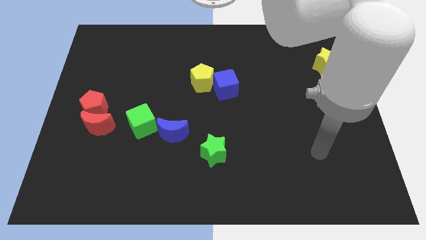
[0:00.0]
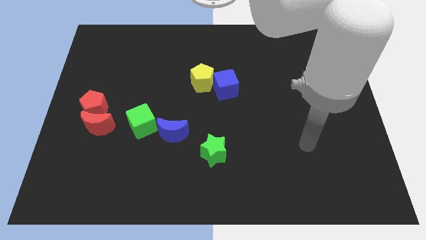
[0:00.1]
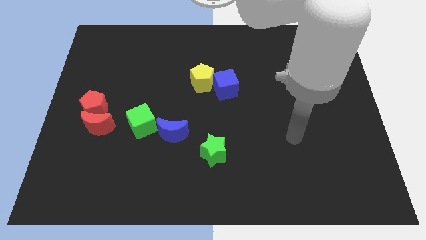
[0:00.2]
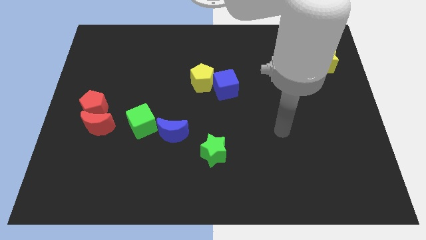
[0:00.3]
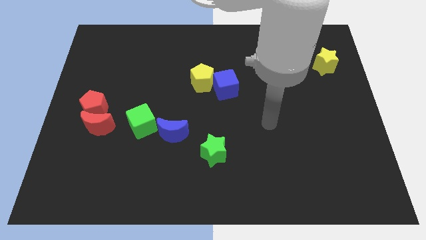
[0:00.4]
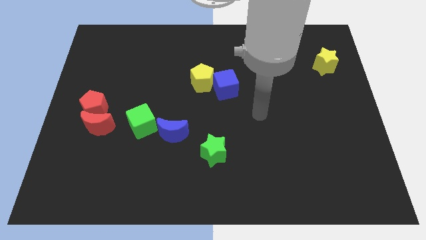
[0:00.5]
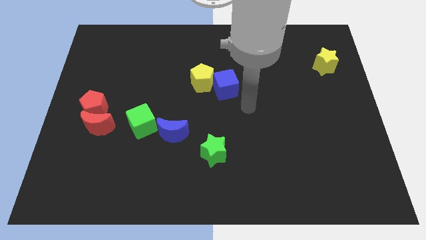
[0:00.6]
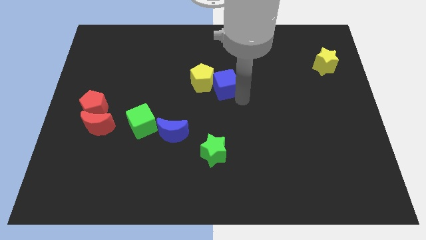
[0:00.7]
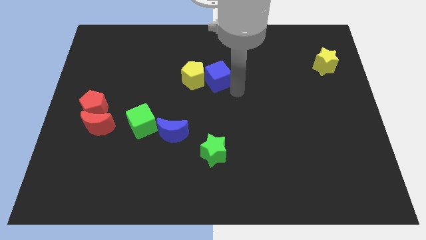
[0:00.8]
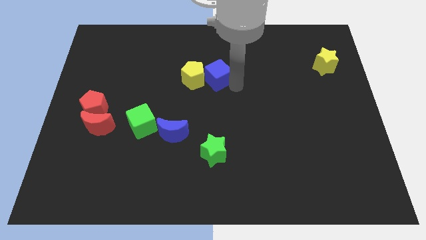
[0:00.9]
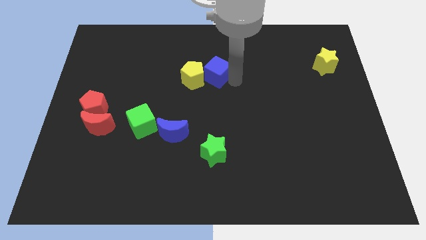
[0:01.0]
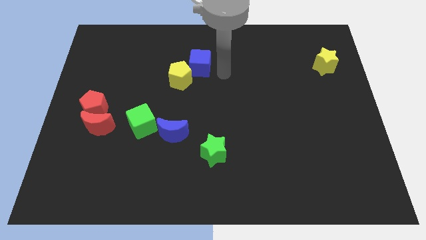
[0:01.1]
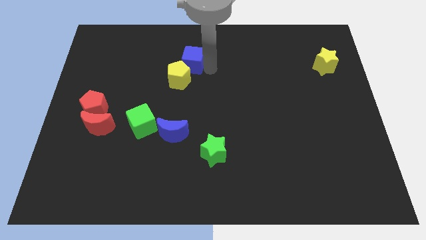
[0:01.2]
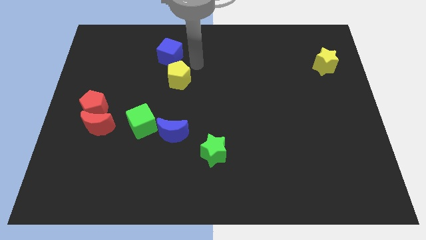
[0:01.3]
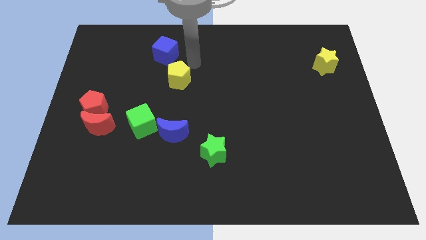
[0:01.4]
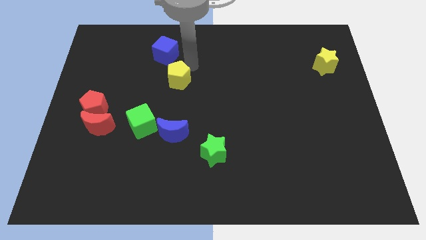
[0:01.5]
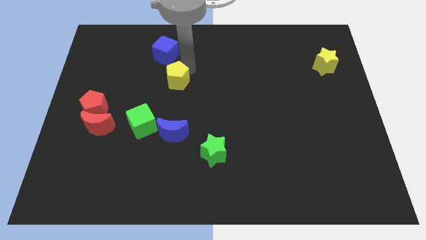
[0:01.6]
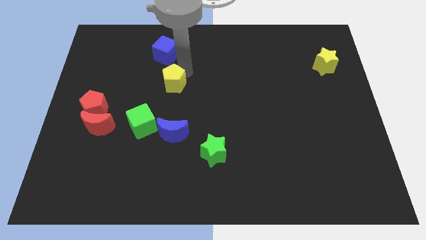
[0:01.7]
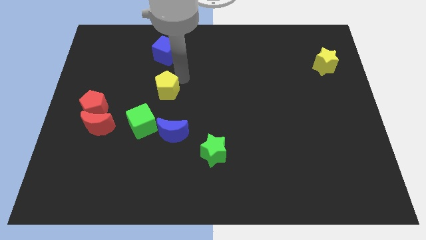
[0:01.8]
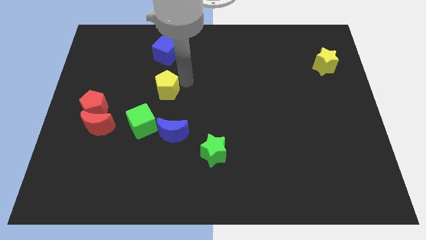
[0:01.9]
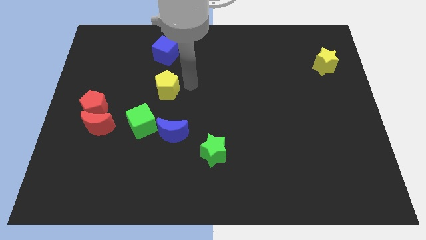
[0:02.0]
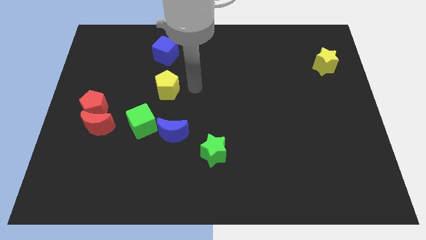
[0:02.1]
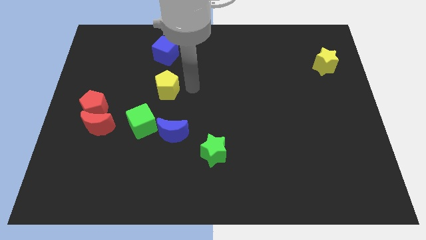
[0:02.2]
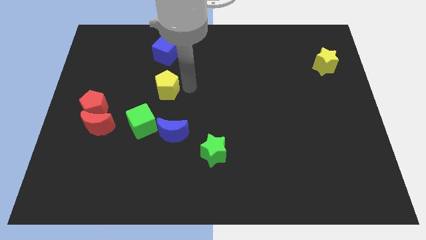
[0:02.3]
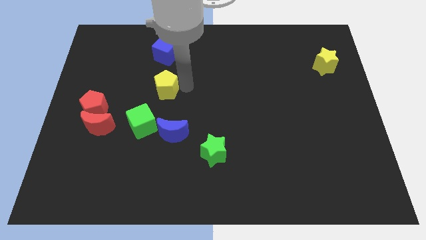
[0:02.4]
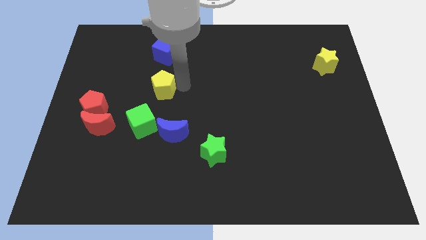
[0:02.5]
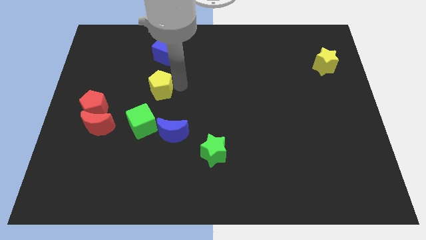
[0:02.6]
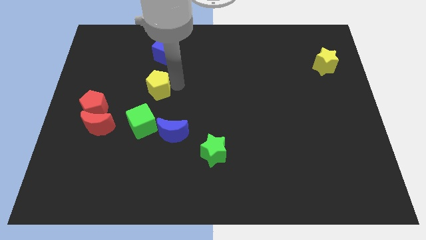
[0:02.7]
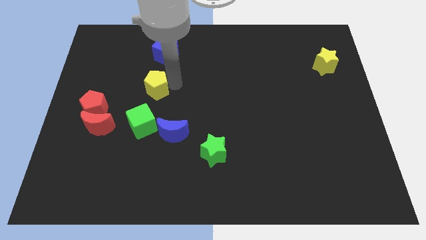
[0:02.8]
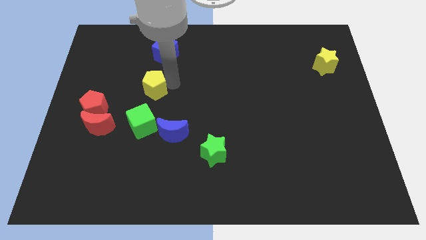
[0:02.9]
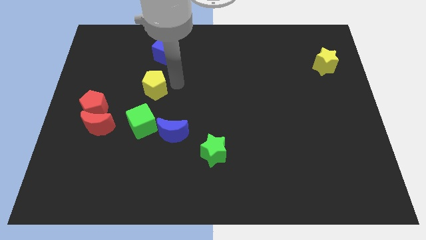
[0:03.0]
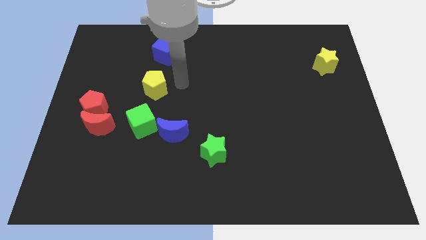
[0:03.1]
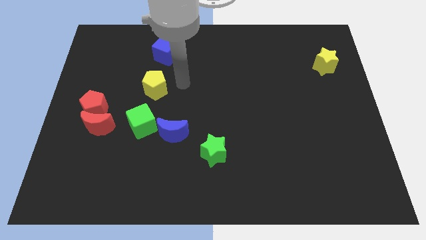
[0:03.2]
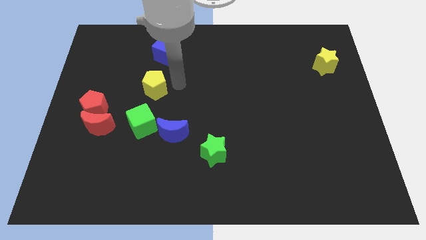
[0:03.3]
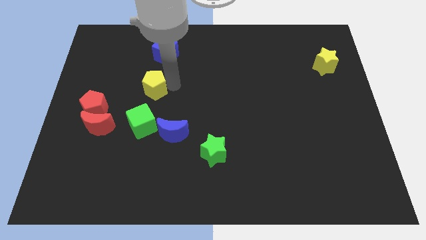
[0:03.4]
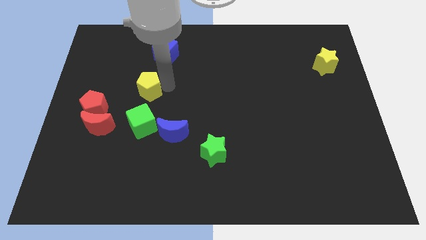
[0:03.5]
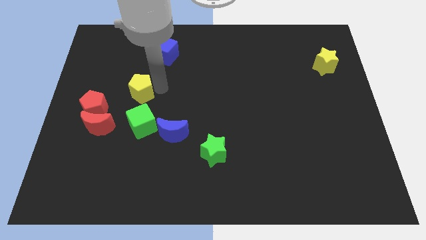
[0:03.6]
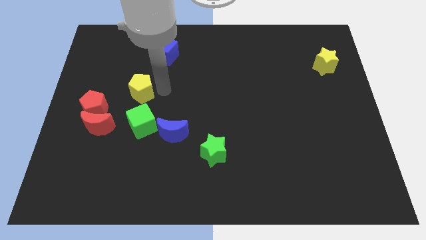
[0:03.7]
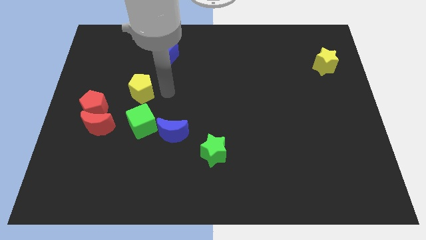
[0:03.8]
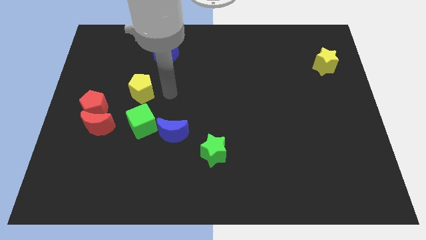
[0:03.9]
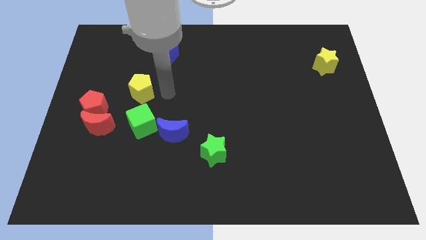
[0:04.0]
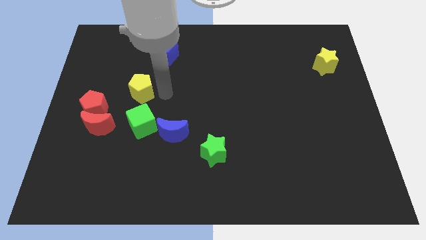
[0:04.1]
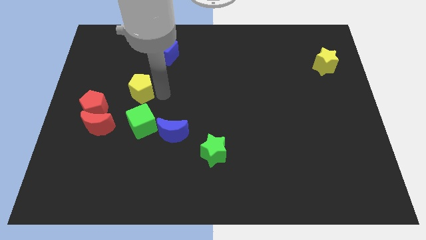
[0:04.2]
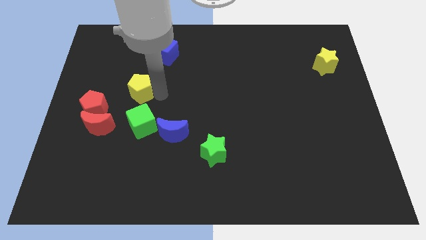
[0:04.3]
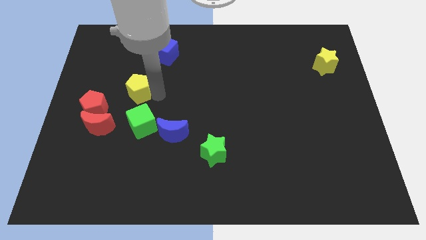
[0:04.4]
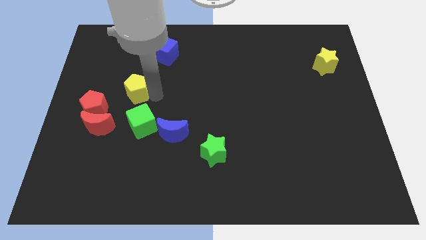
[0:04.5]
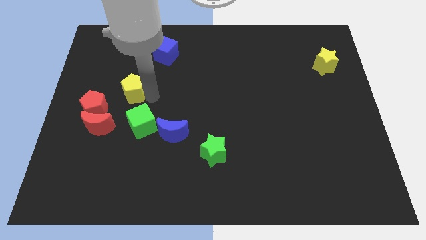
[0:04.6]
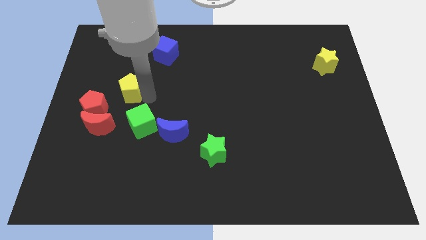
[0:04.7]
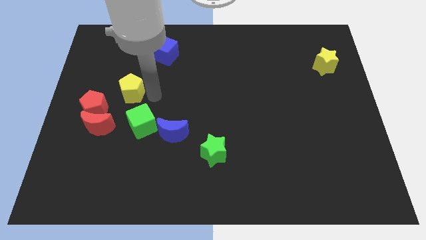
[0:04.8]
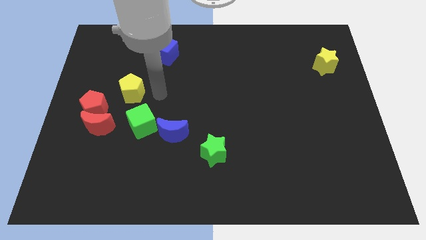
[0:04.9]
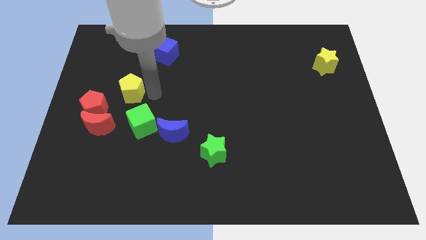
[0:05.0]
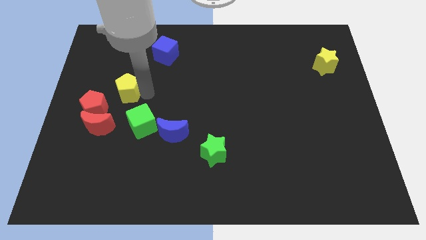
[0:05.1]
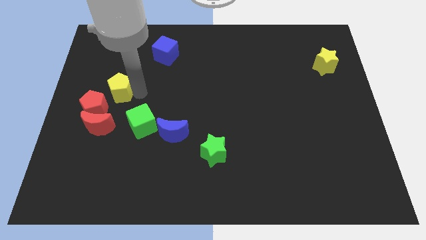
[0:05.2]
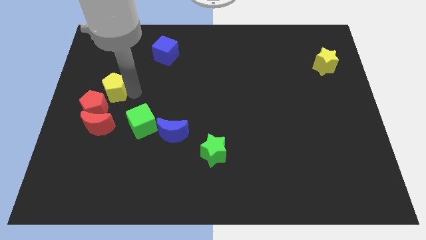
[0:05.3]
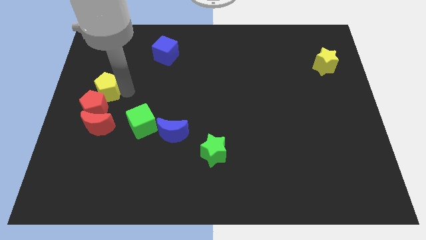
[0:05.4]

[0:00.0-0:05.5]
slide the yellow pentagon to the left side
